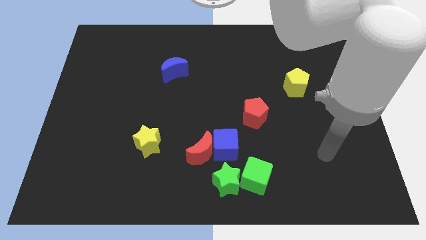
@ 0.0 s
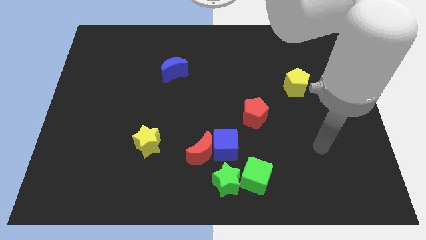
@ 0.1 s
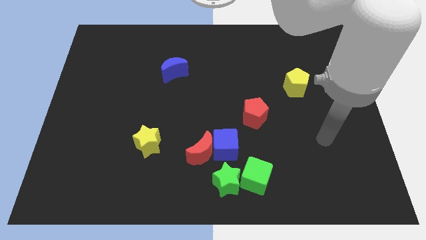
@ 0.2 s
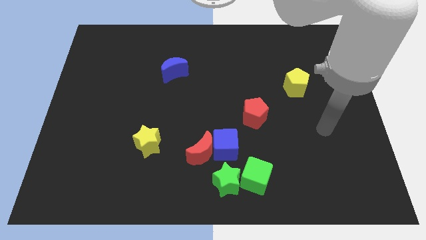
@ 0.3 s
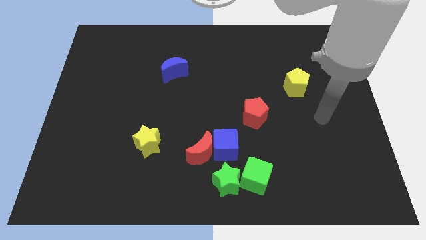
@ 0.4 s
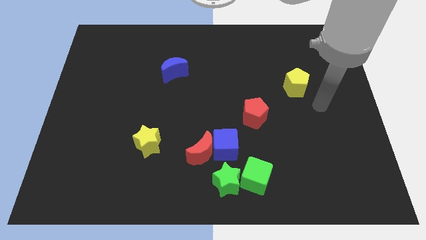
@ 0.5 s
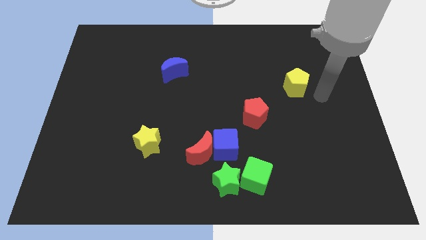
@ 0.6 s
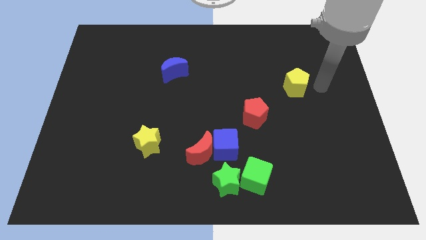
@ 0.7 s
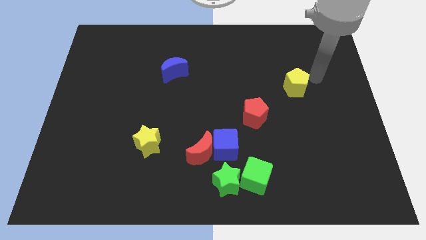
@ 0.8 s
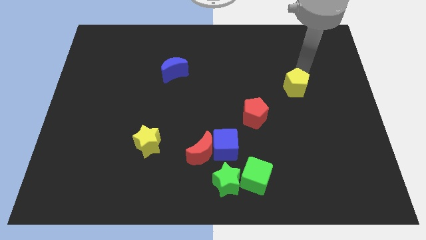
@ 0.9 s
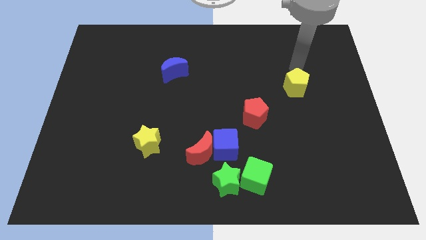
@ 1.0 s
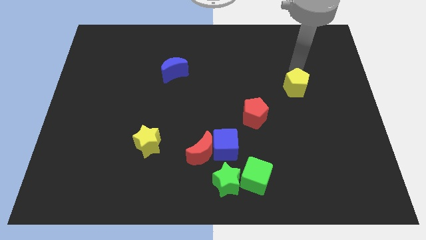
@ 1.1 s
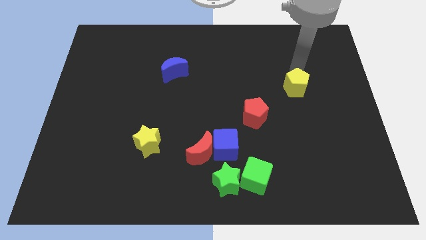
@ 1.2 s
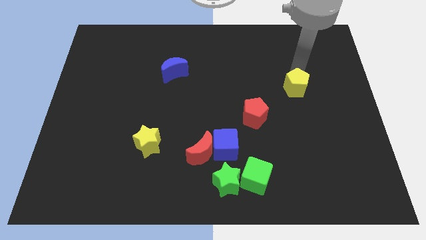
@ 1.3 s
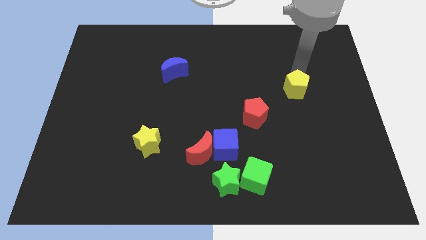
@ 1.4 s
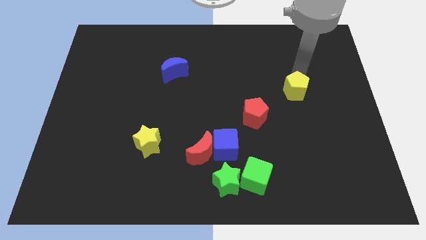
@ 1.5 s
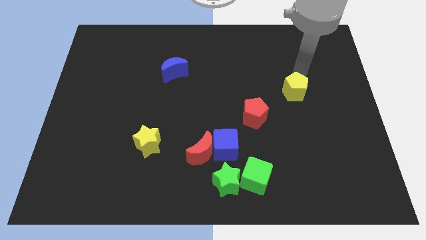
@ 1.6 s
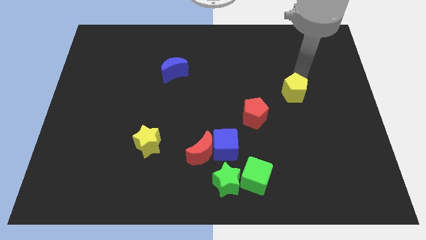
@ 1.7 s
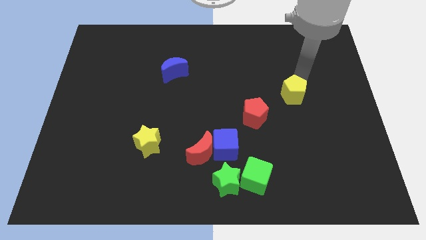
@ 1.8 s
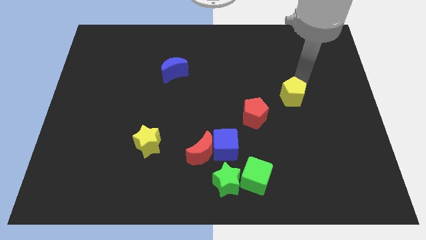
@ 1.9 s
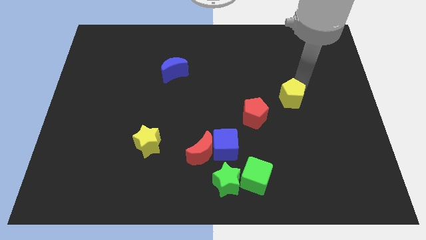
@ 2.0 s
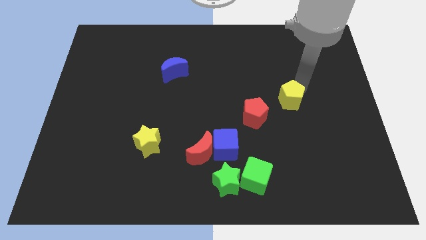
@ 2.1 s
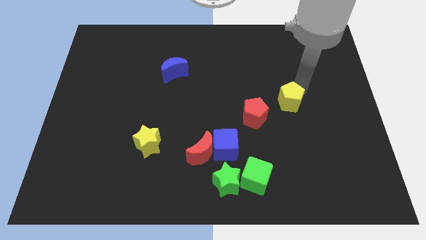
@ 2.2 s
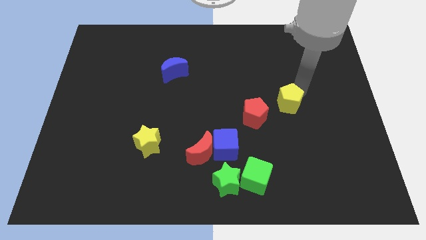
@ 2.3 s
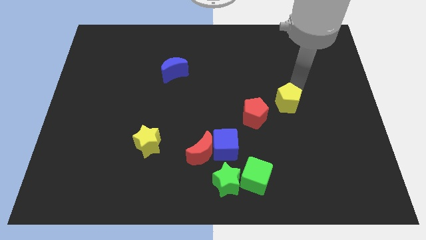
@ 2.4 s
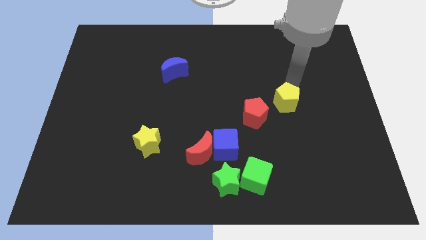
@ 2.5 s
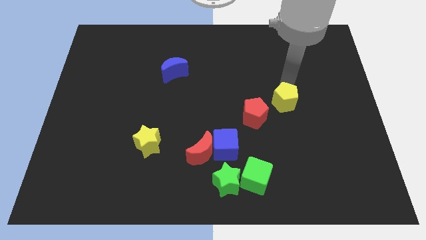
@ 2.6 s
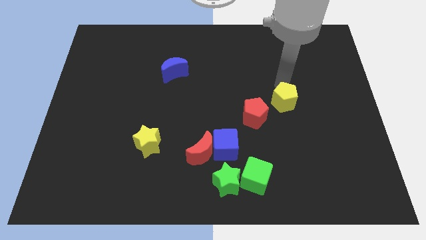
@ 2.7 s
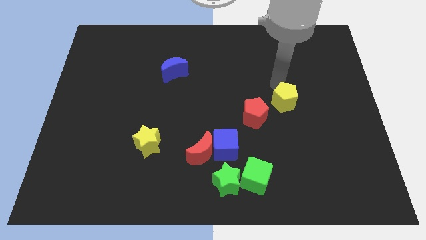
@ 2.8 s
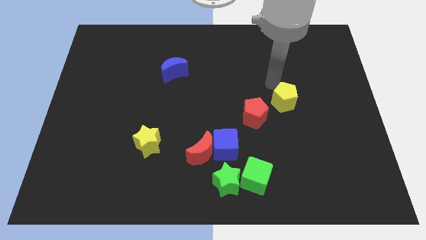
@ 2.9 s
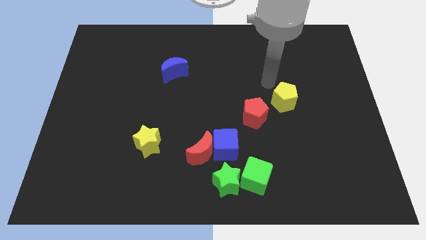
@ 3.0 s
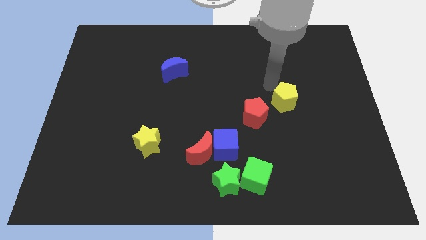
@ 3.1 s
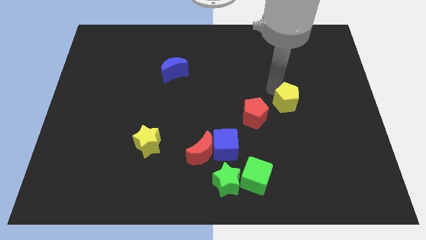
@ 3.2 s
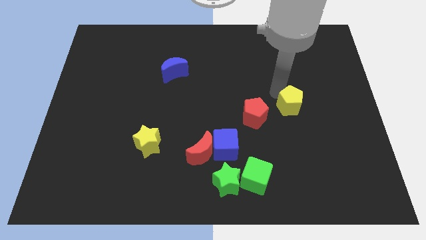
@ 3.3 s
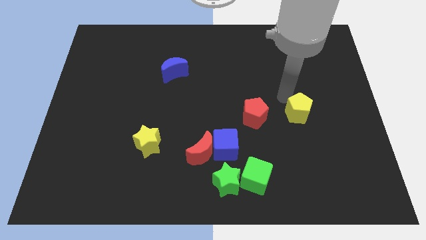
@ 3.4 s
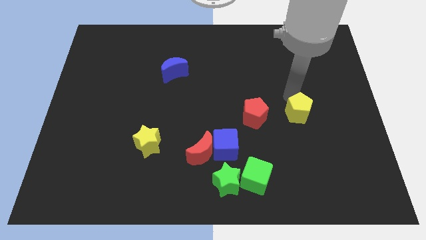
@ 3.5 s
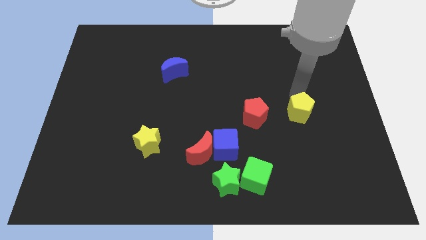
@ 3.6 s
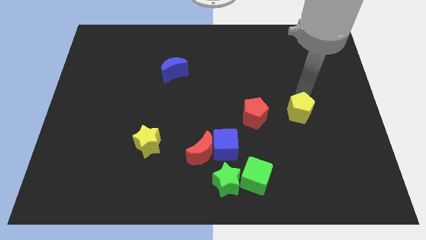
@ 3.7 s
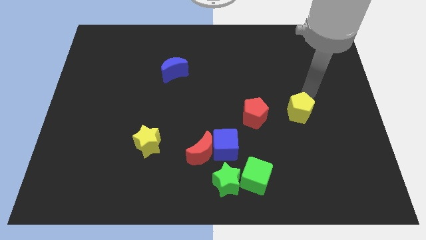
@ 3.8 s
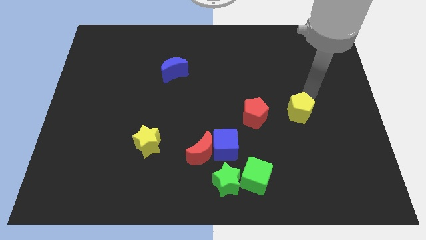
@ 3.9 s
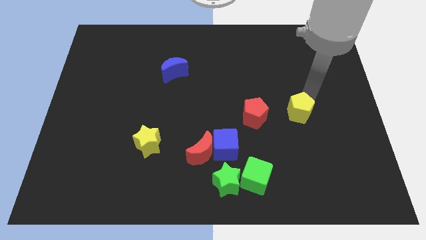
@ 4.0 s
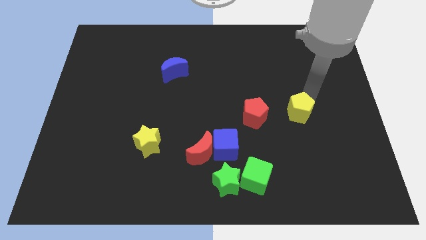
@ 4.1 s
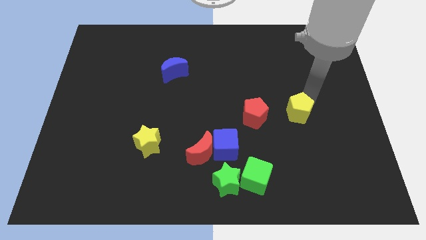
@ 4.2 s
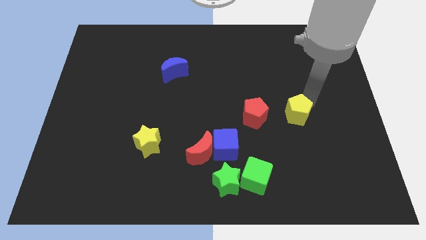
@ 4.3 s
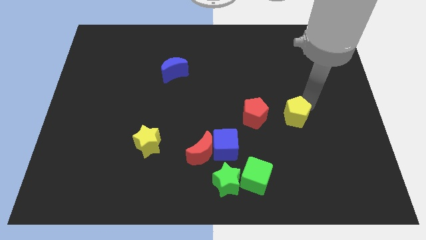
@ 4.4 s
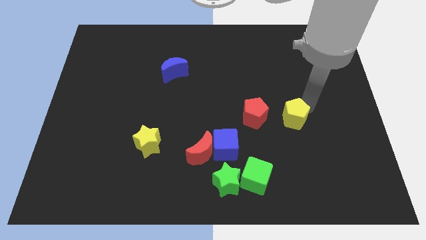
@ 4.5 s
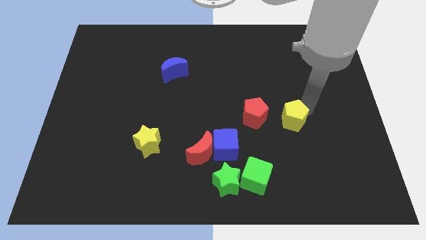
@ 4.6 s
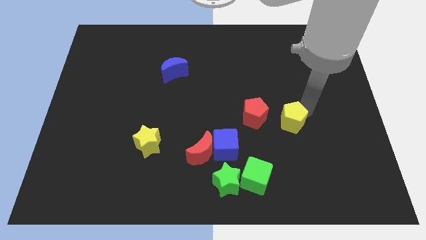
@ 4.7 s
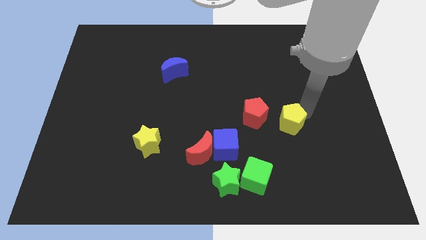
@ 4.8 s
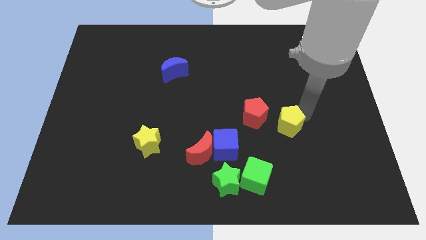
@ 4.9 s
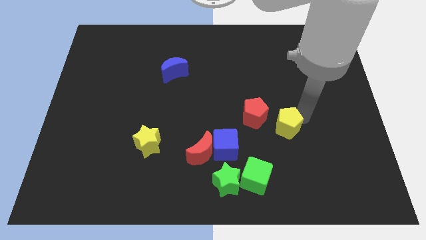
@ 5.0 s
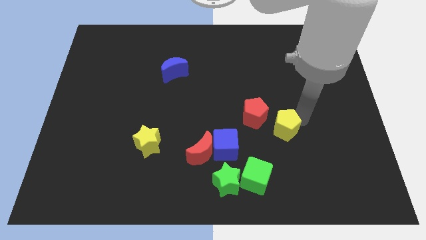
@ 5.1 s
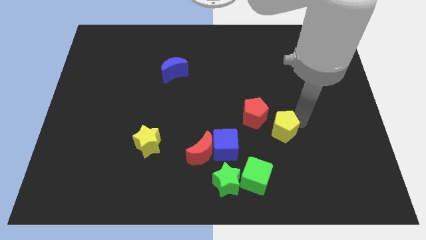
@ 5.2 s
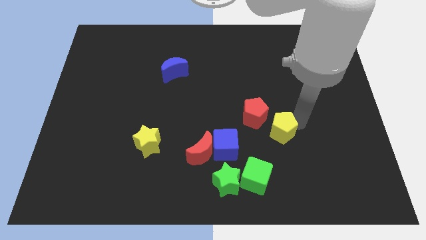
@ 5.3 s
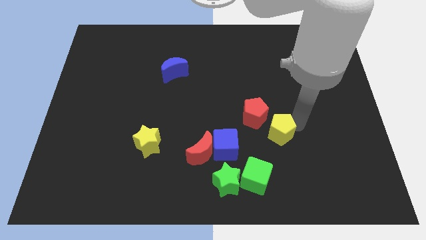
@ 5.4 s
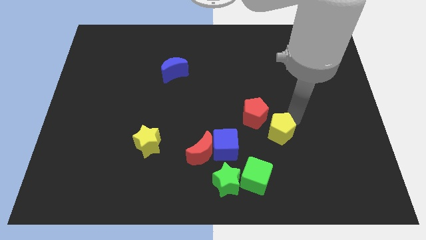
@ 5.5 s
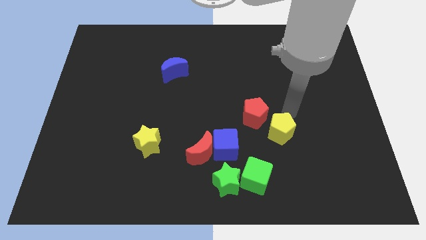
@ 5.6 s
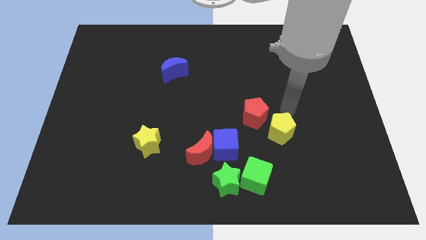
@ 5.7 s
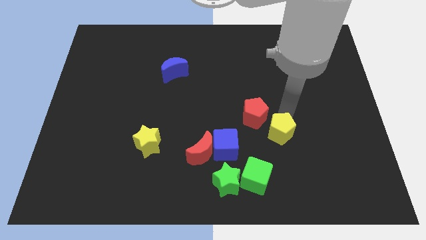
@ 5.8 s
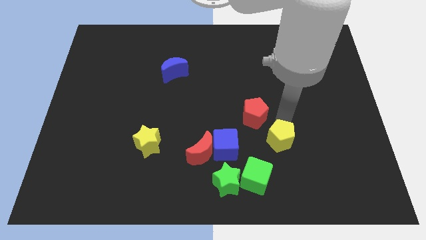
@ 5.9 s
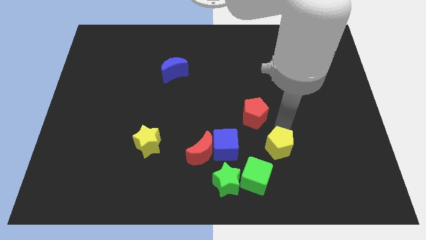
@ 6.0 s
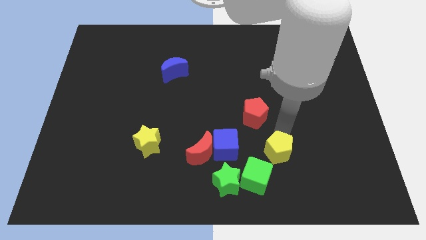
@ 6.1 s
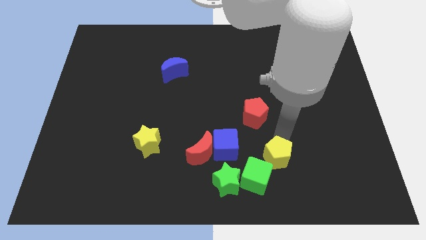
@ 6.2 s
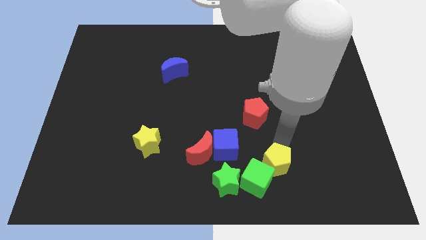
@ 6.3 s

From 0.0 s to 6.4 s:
push the yellow pentagon next to the green cube

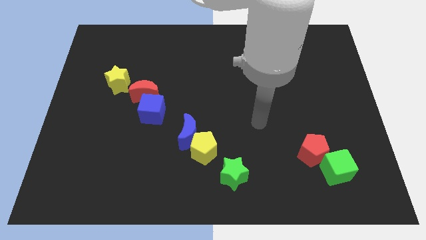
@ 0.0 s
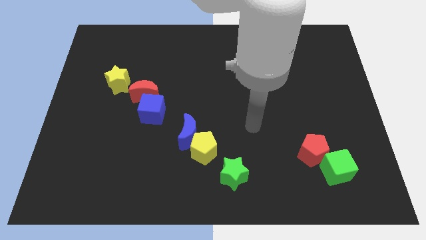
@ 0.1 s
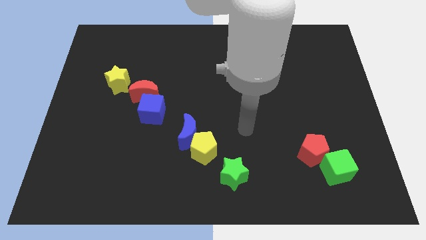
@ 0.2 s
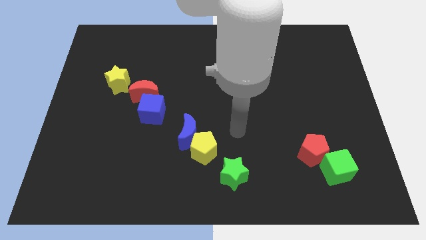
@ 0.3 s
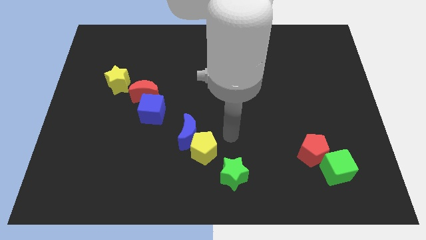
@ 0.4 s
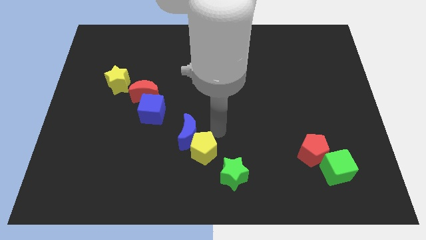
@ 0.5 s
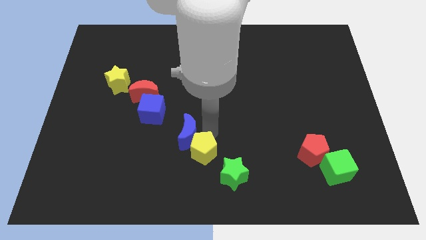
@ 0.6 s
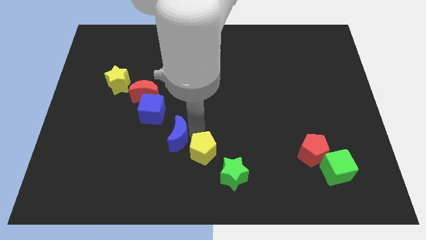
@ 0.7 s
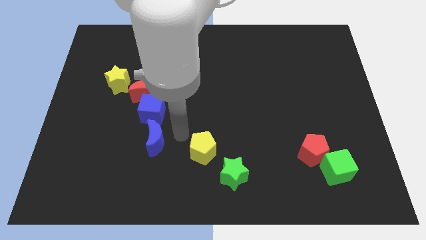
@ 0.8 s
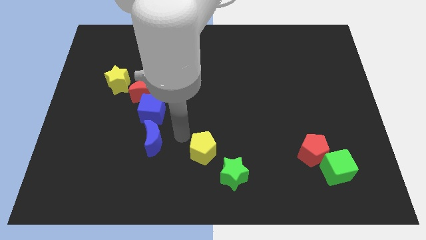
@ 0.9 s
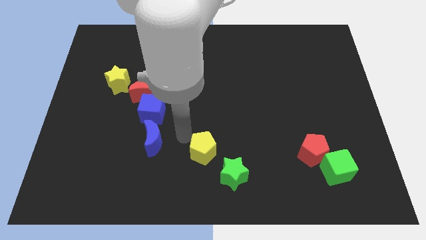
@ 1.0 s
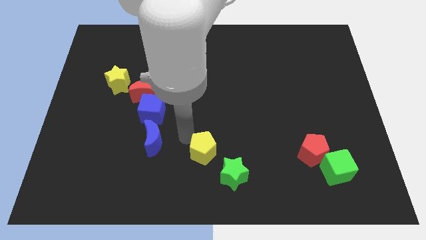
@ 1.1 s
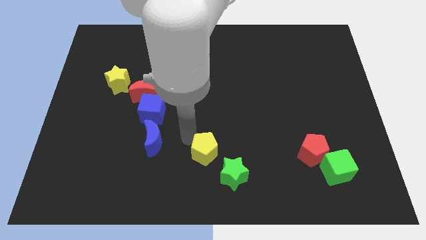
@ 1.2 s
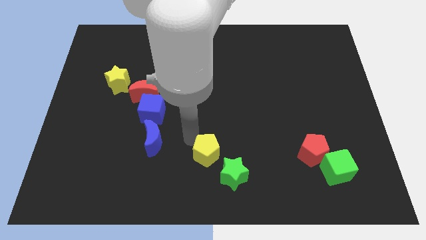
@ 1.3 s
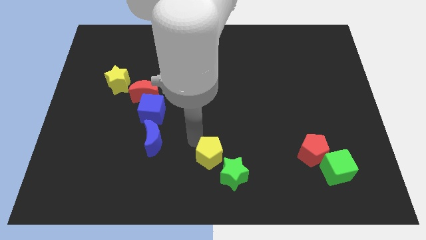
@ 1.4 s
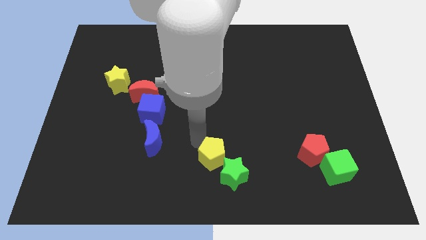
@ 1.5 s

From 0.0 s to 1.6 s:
slide the yellow pentagon towards the green star
